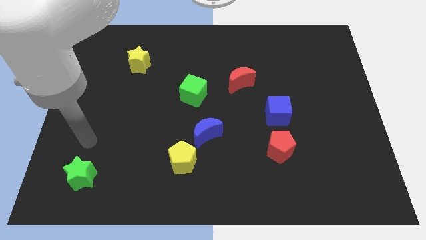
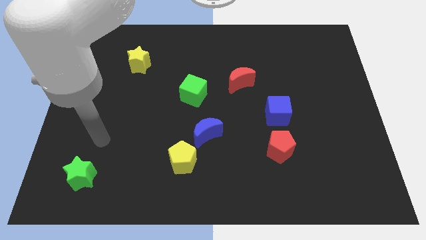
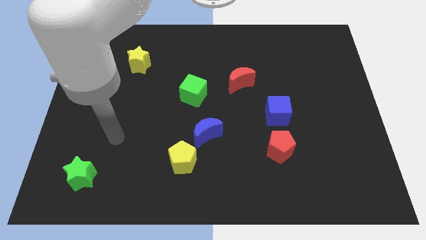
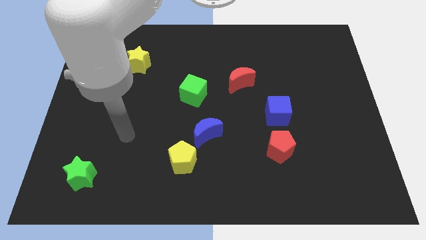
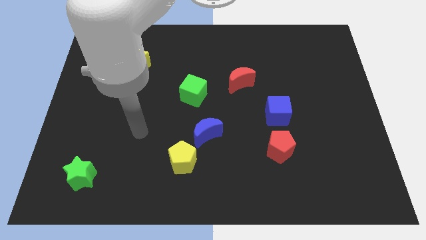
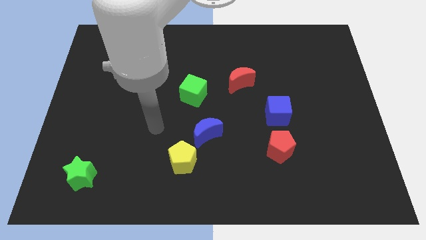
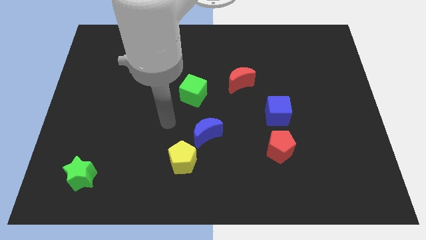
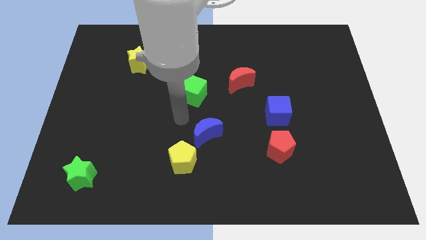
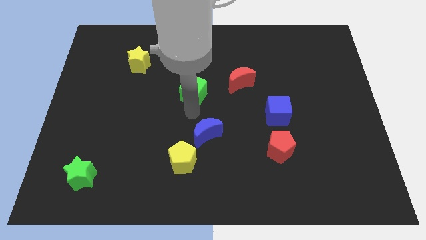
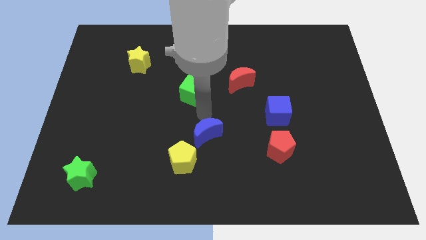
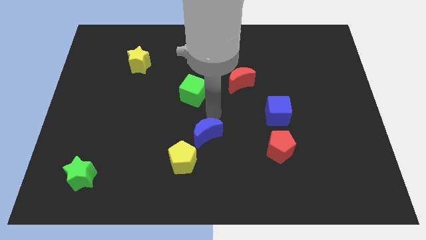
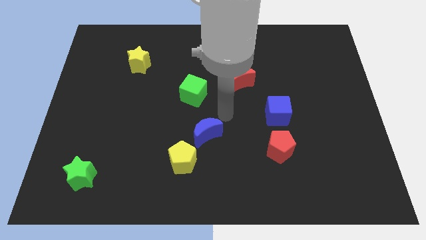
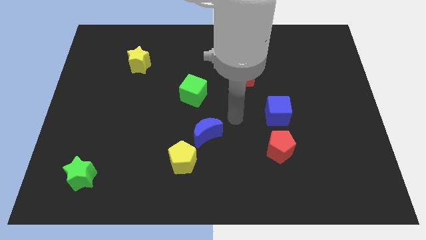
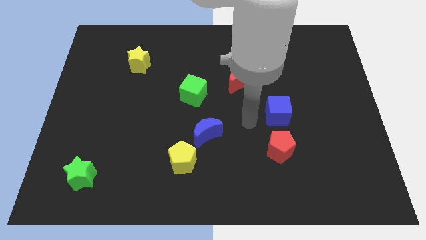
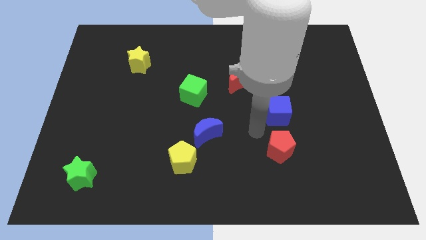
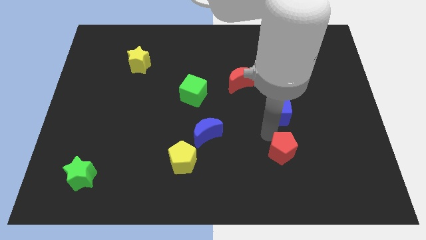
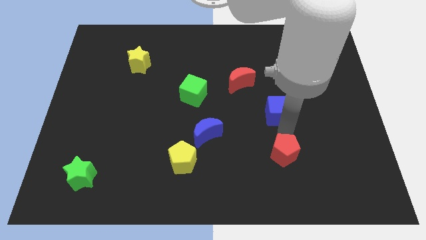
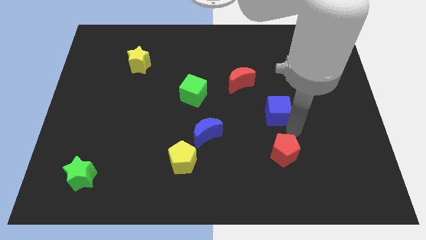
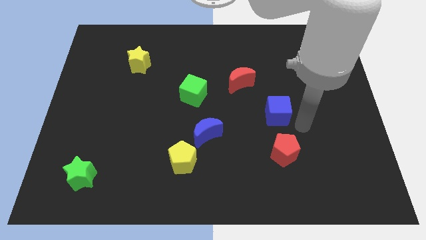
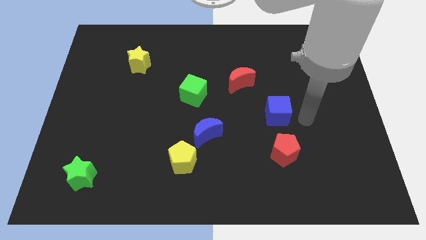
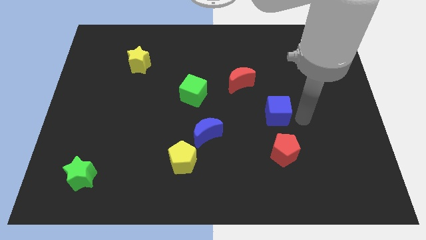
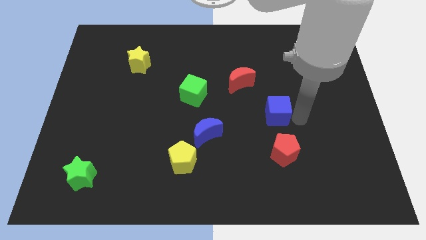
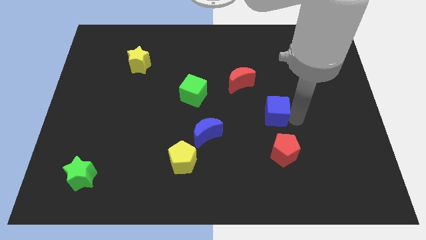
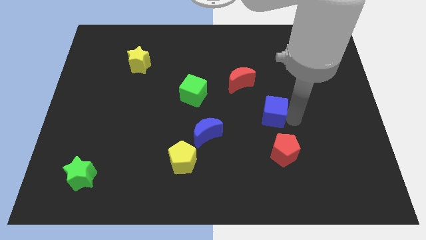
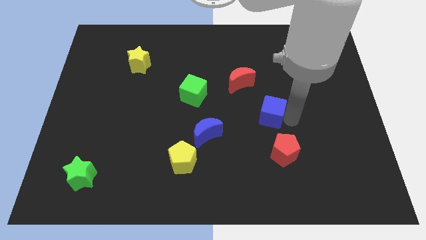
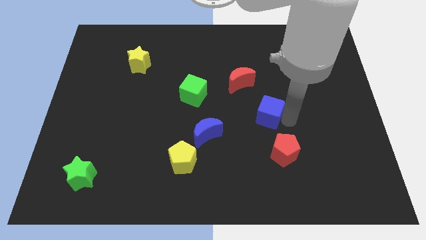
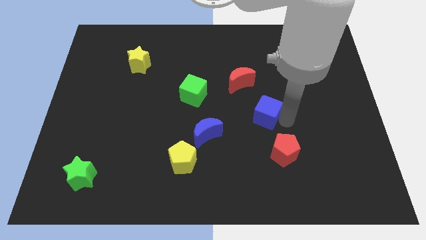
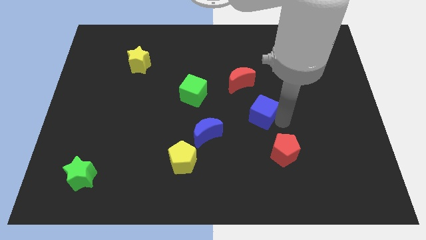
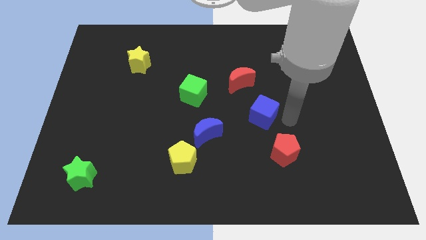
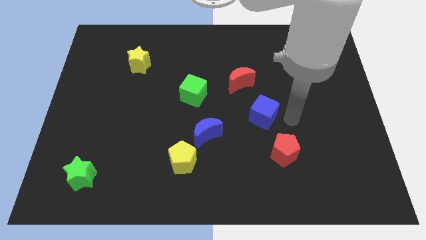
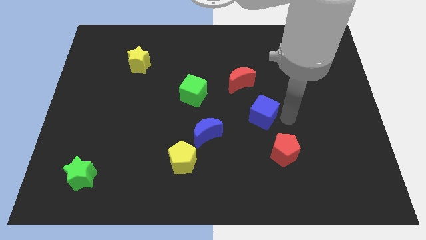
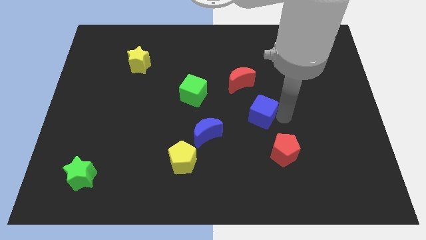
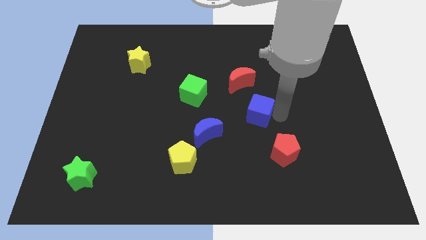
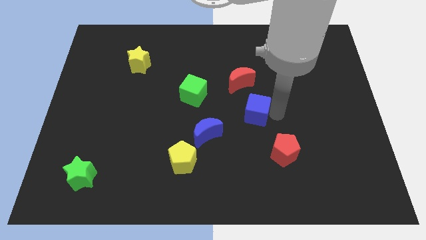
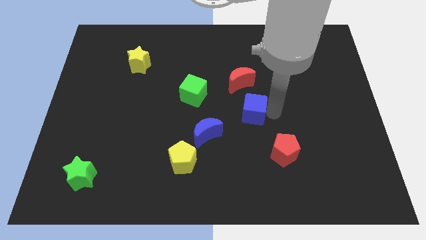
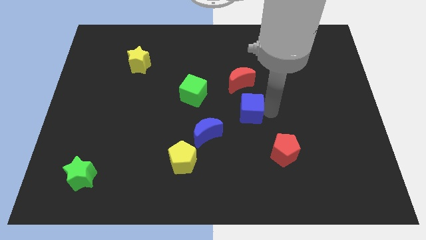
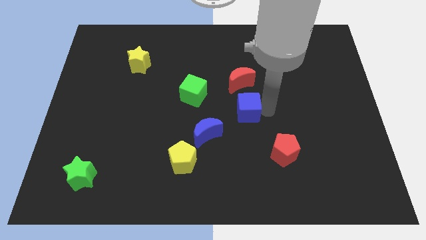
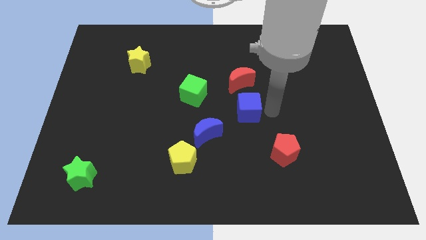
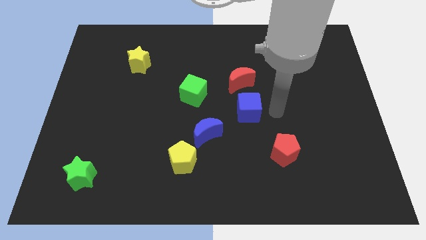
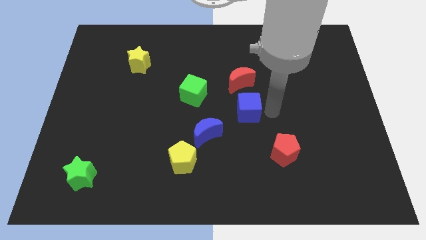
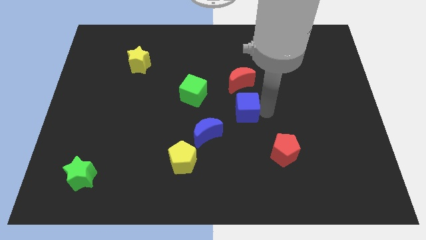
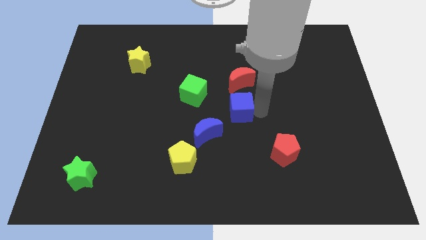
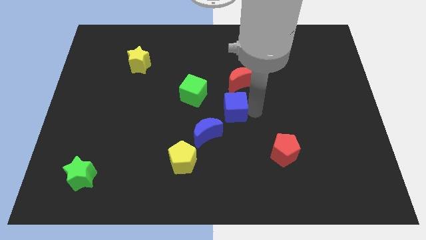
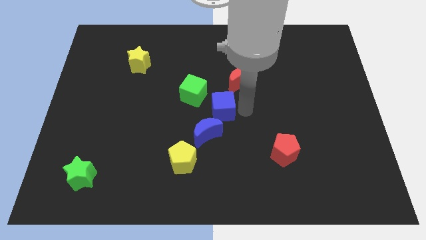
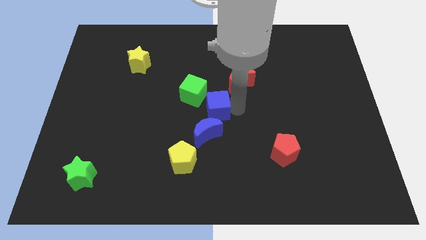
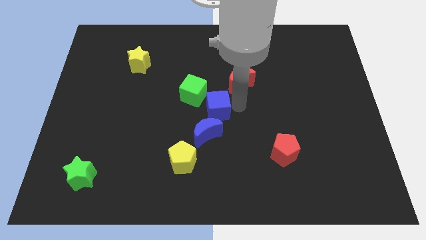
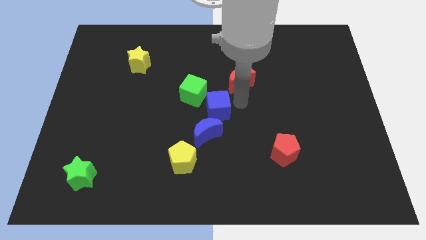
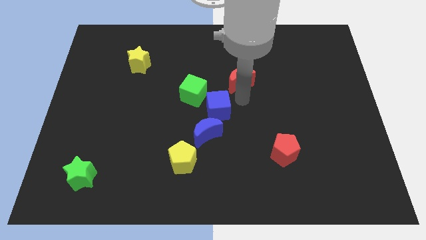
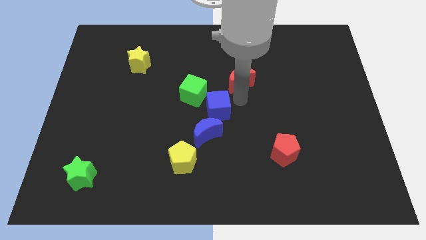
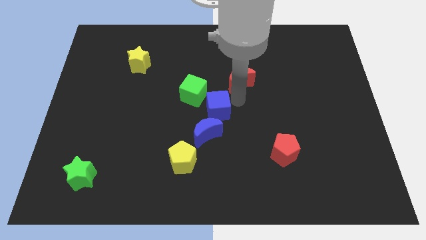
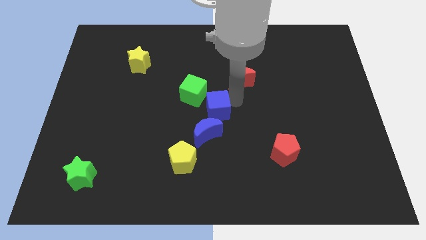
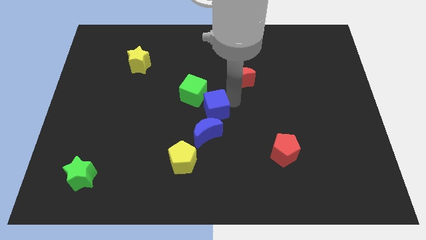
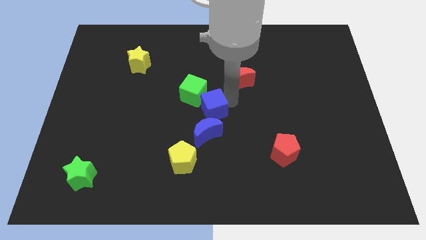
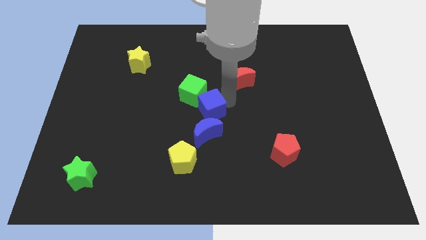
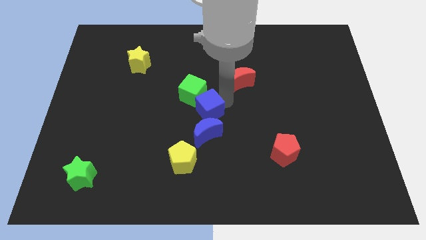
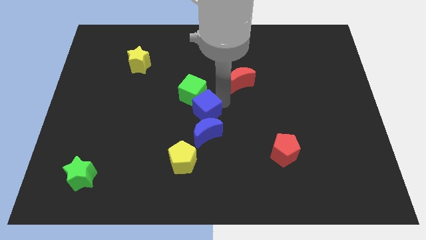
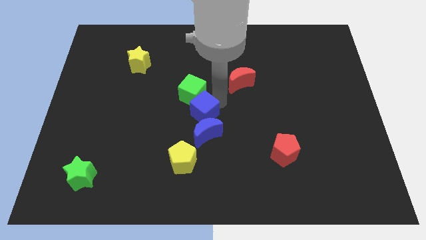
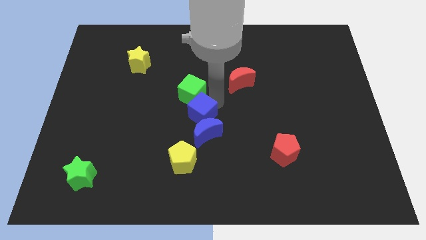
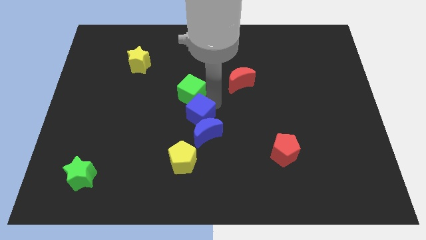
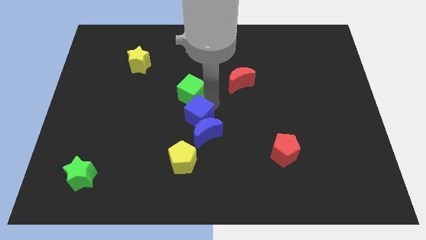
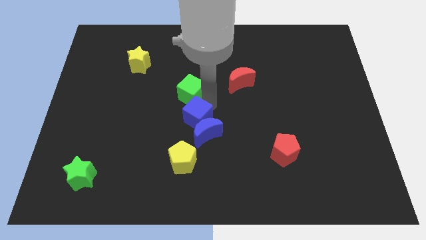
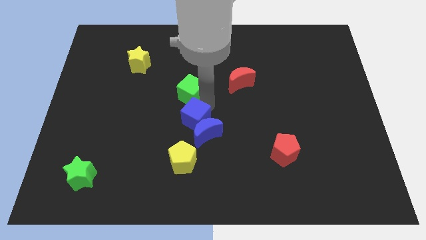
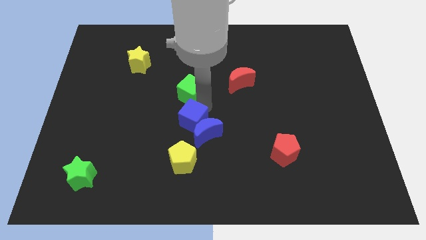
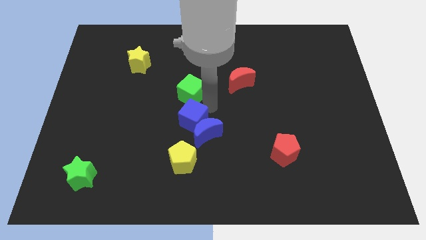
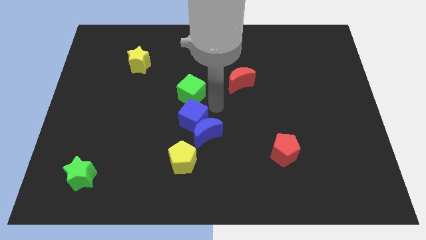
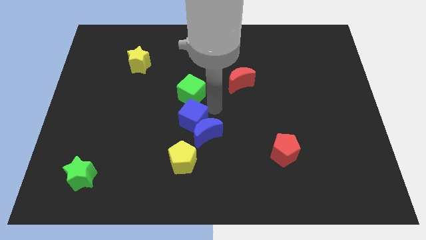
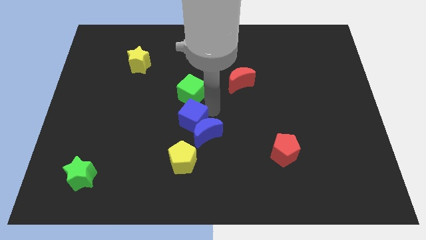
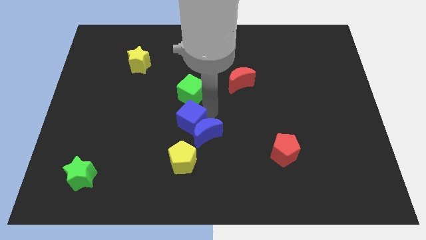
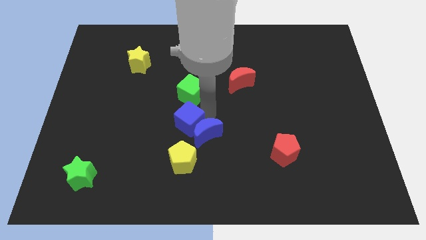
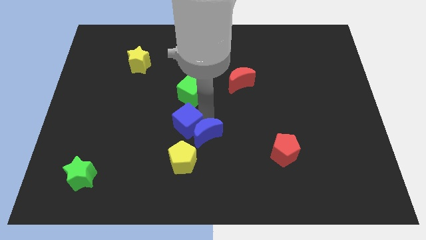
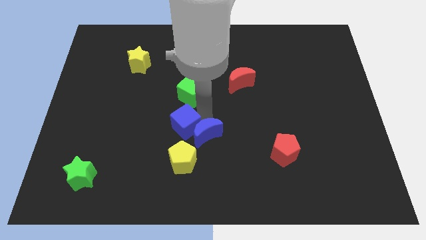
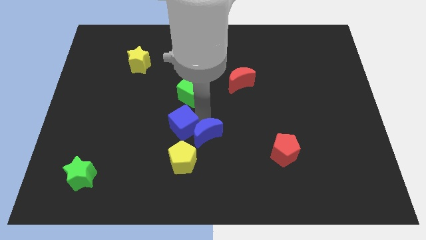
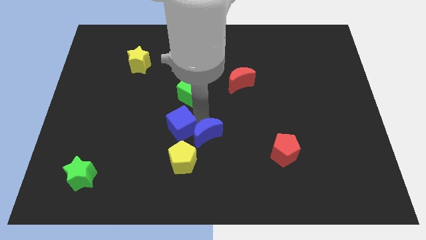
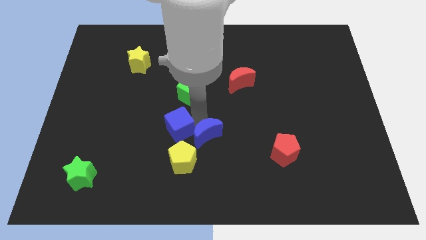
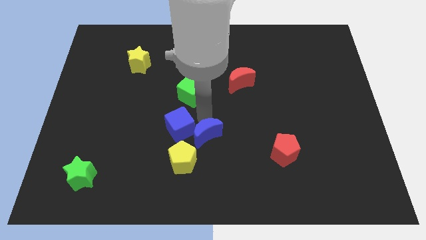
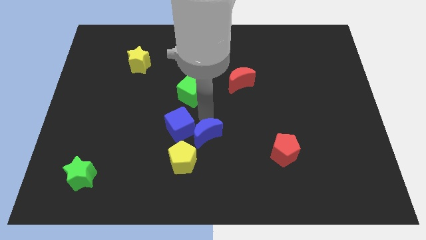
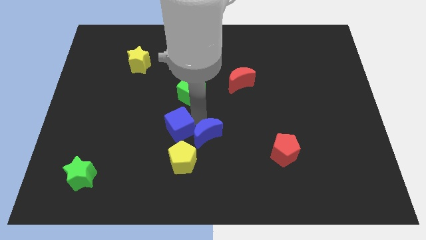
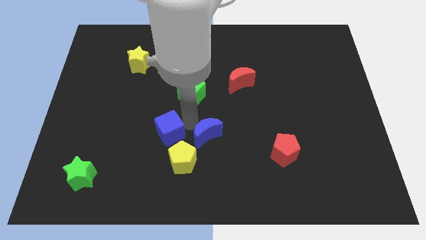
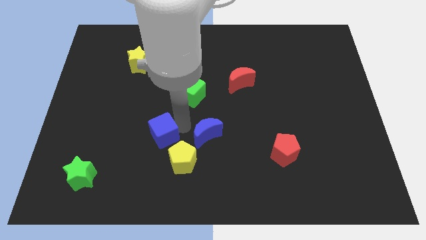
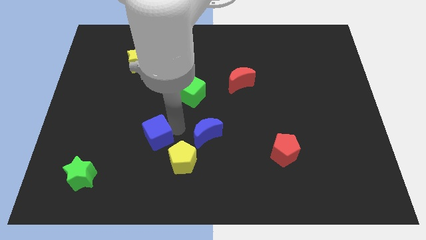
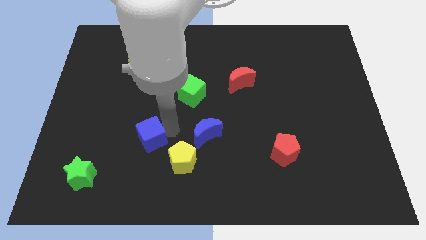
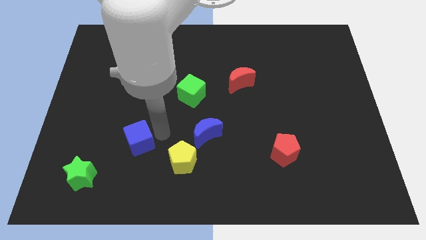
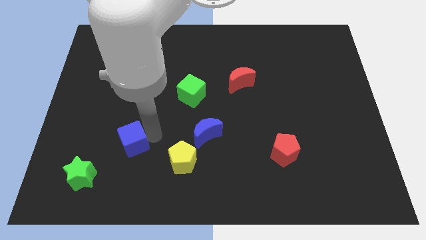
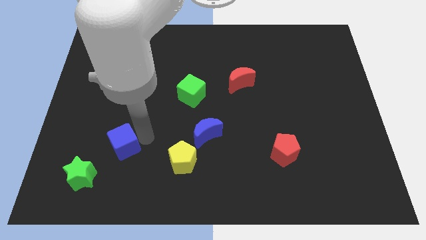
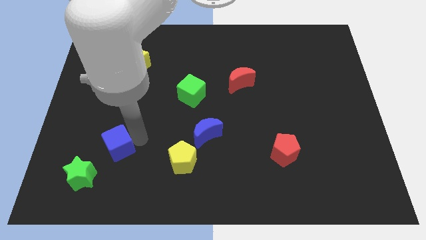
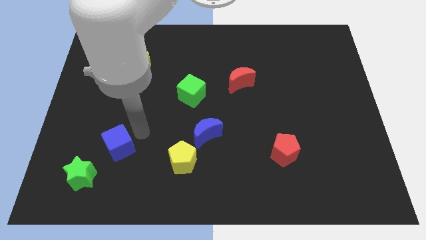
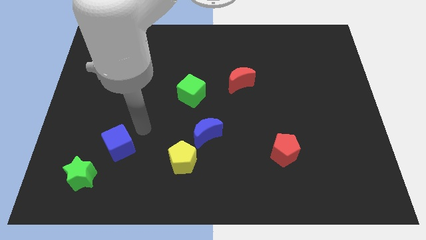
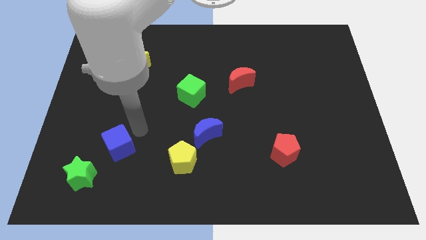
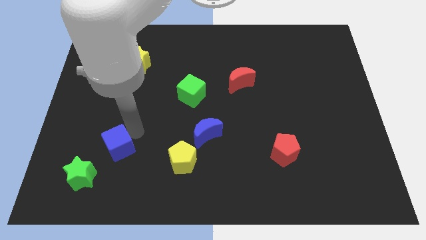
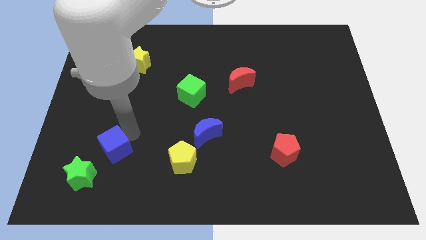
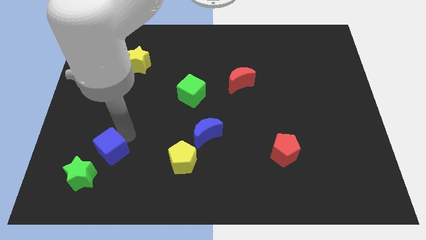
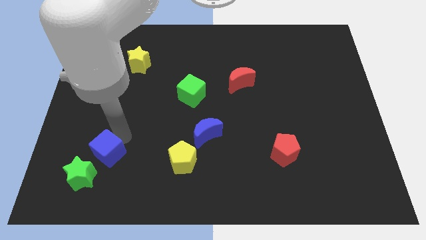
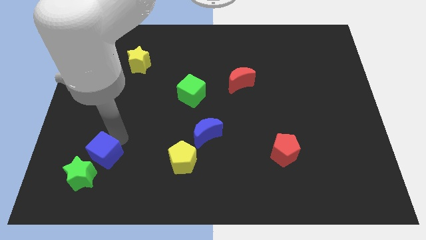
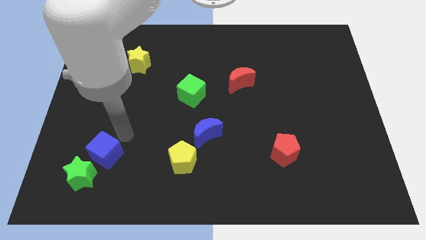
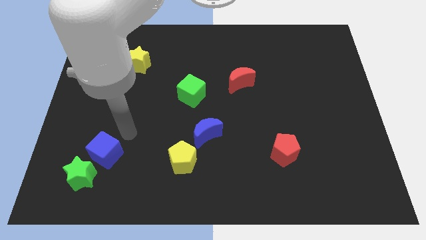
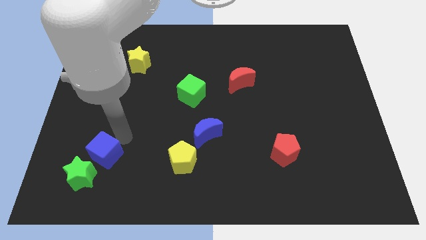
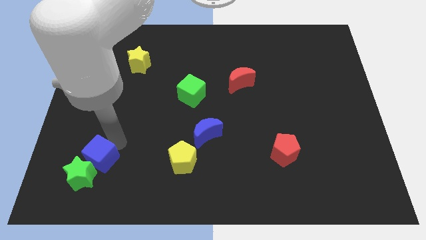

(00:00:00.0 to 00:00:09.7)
move the blue cube towards the green star
